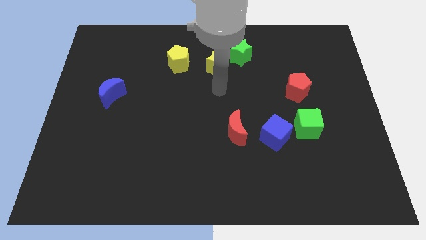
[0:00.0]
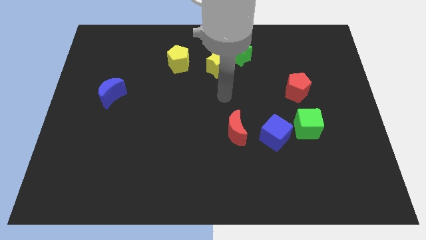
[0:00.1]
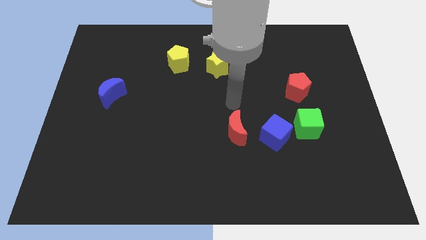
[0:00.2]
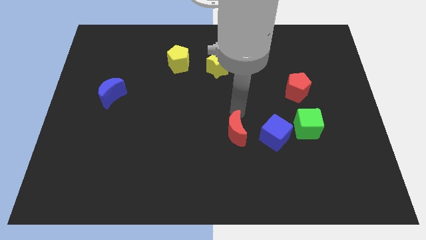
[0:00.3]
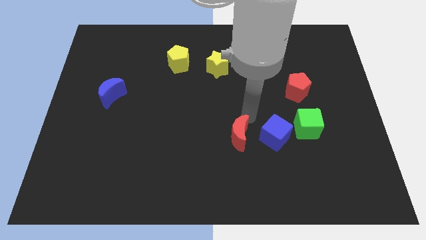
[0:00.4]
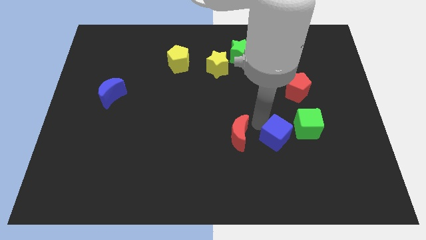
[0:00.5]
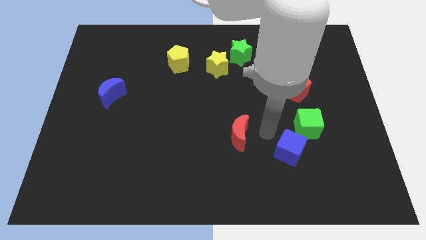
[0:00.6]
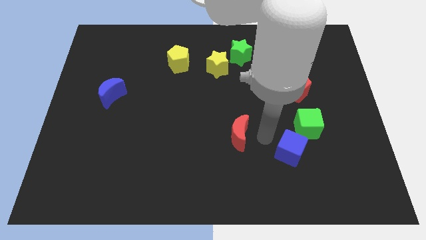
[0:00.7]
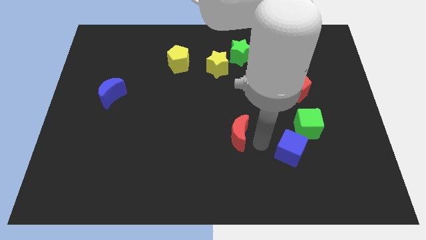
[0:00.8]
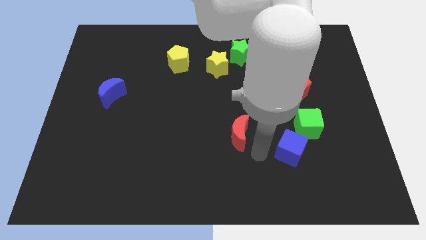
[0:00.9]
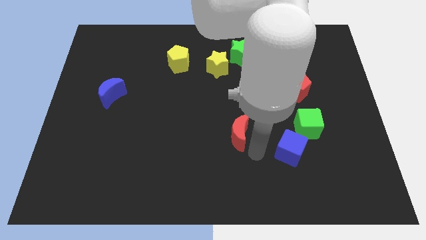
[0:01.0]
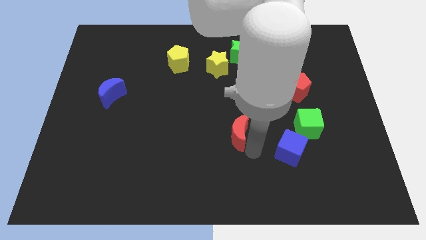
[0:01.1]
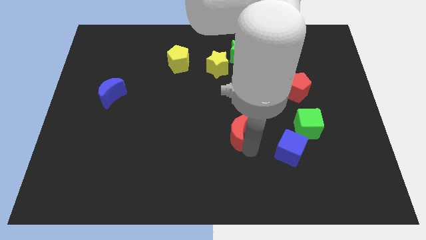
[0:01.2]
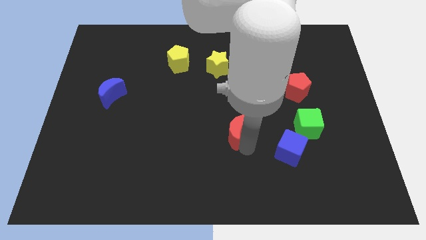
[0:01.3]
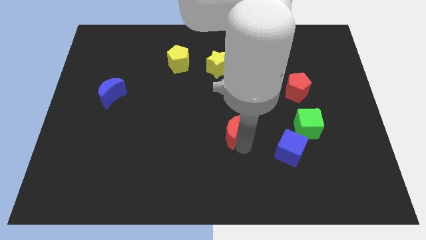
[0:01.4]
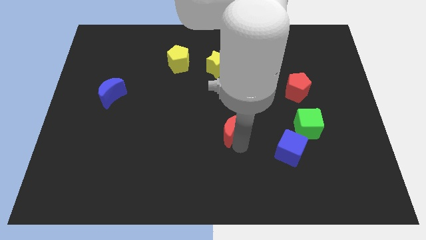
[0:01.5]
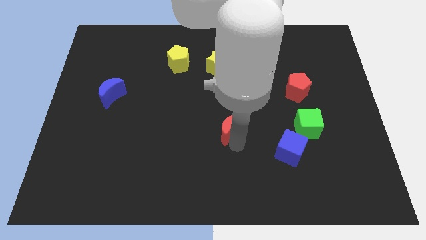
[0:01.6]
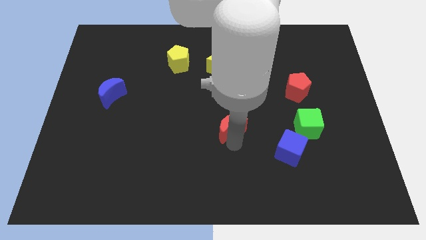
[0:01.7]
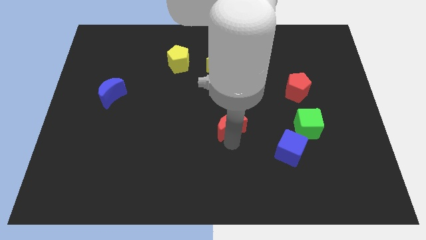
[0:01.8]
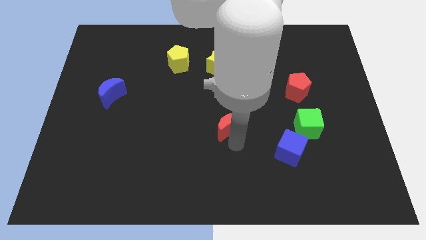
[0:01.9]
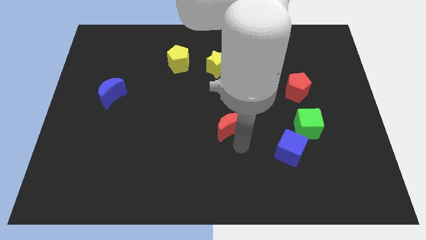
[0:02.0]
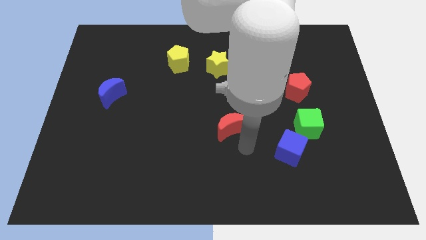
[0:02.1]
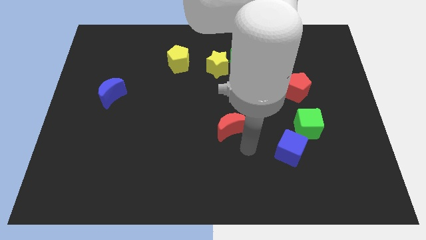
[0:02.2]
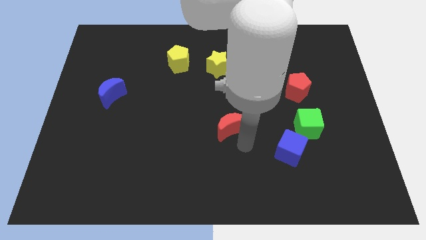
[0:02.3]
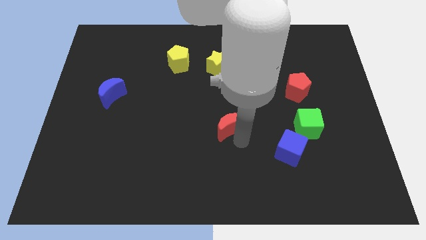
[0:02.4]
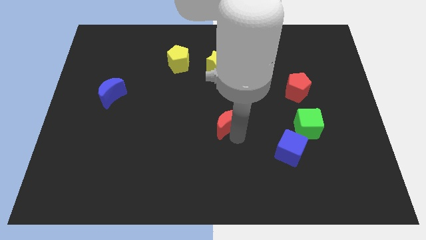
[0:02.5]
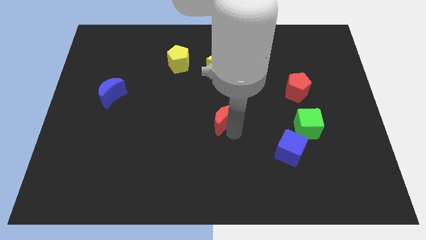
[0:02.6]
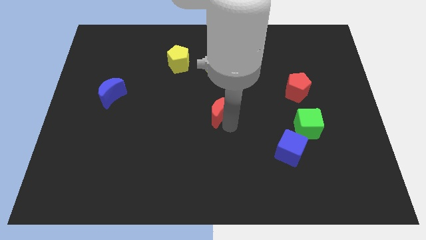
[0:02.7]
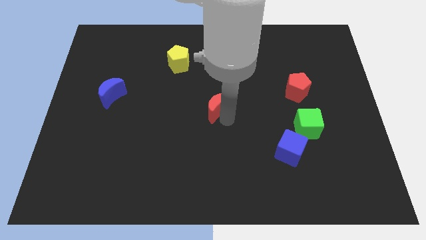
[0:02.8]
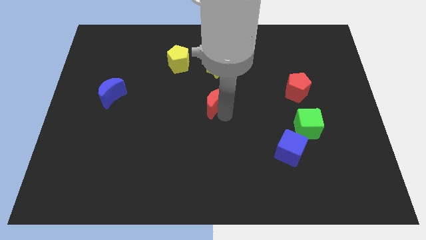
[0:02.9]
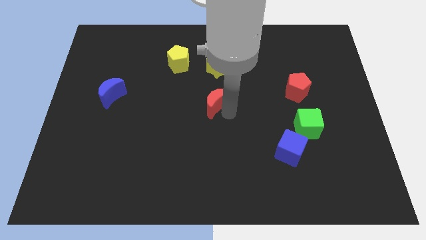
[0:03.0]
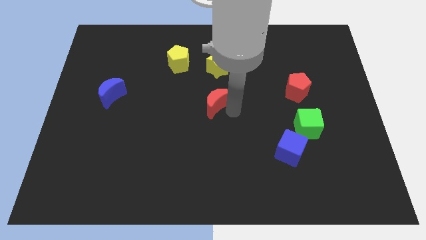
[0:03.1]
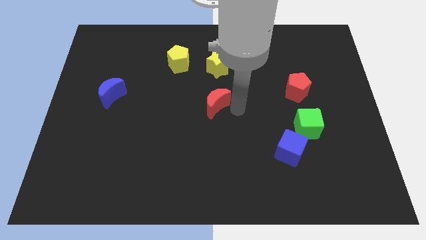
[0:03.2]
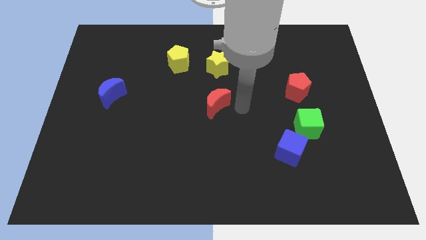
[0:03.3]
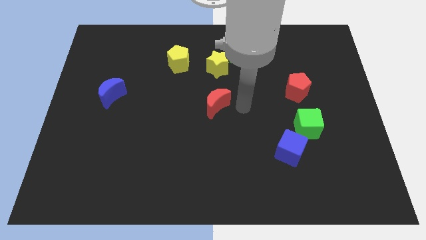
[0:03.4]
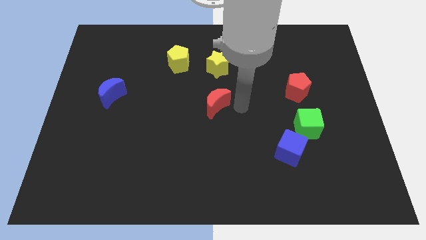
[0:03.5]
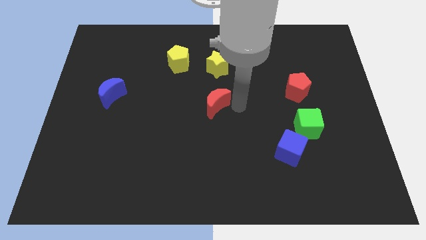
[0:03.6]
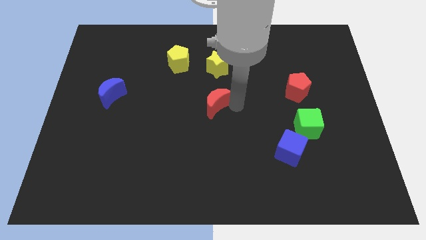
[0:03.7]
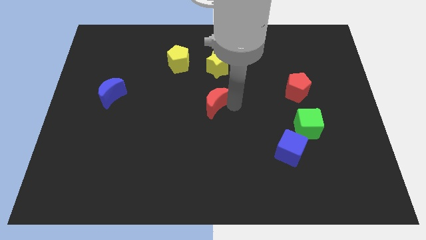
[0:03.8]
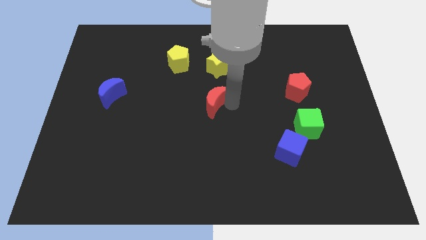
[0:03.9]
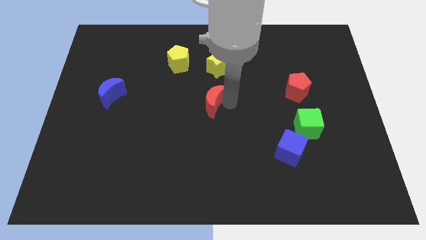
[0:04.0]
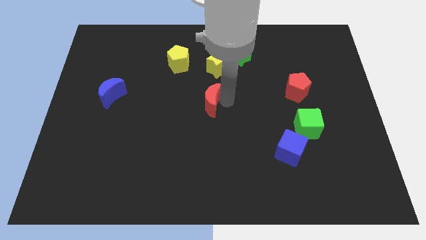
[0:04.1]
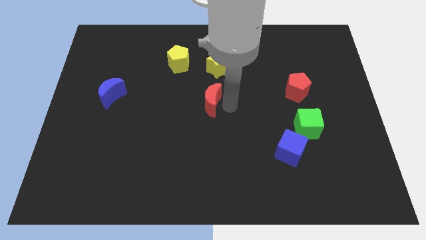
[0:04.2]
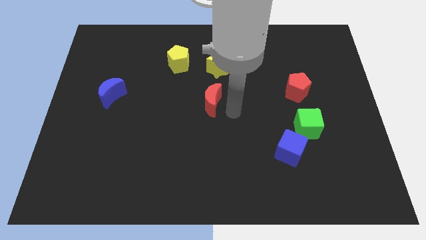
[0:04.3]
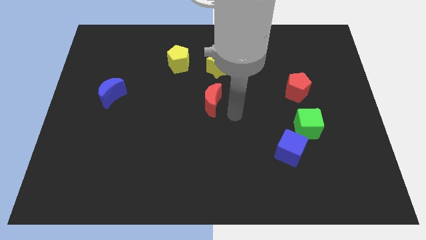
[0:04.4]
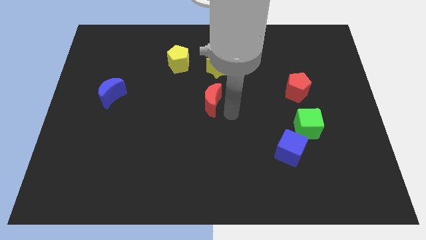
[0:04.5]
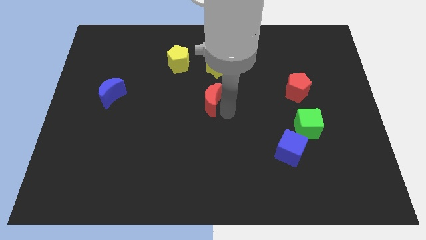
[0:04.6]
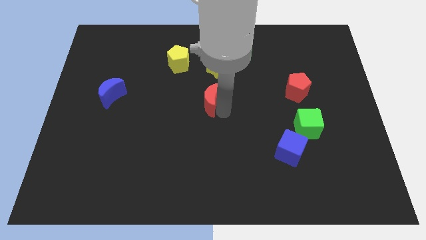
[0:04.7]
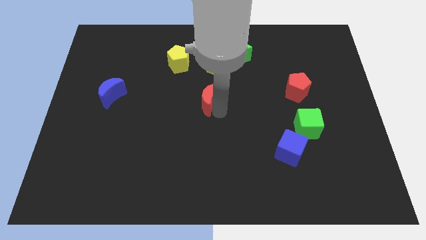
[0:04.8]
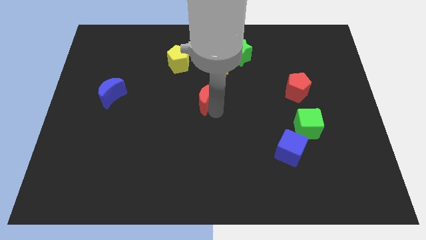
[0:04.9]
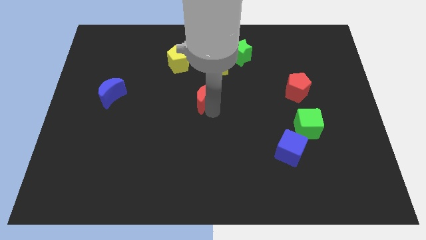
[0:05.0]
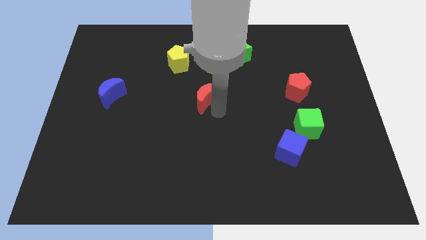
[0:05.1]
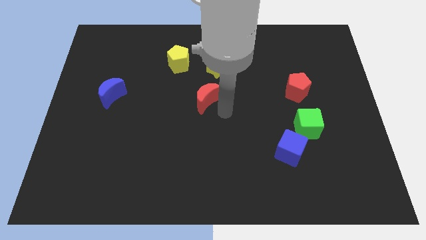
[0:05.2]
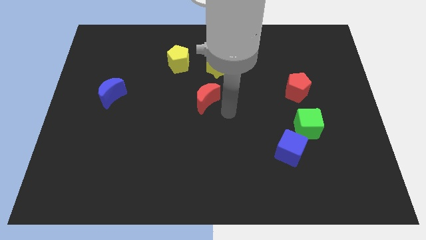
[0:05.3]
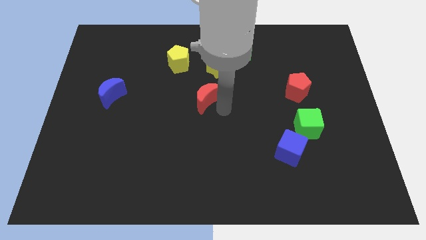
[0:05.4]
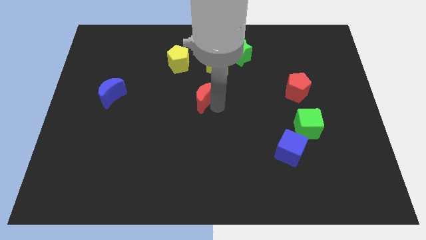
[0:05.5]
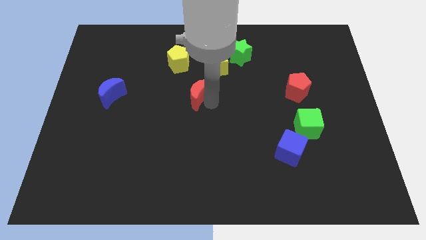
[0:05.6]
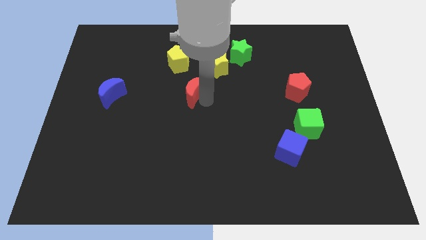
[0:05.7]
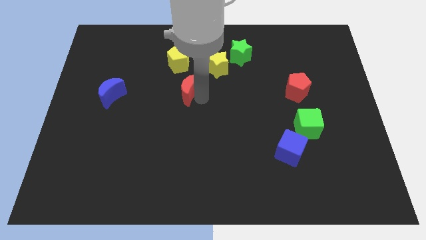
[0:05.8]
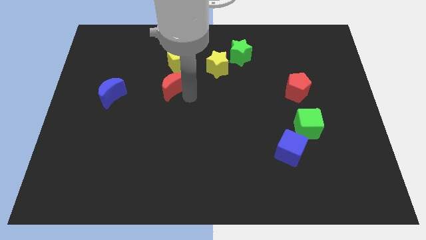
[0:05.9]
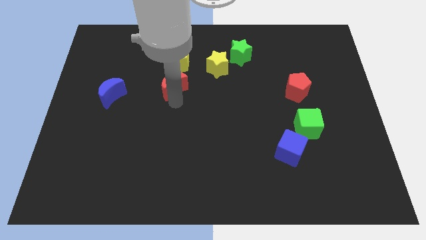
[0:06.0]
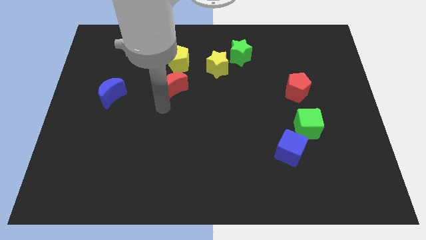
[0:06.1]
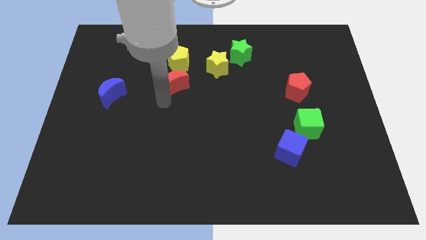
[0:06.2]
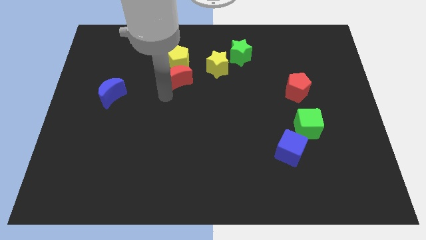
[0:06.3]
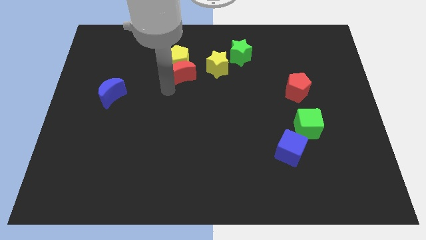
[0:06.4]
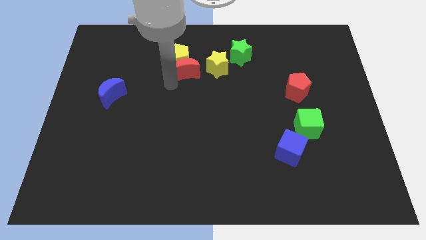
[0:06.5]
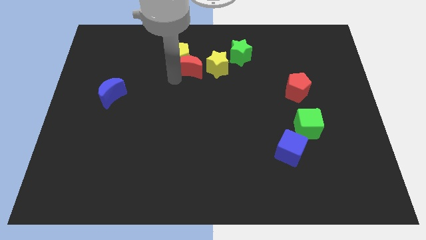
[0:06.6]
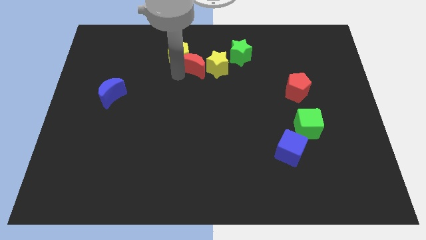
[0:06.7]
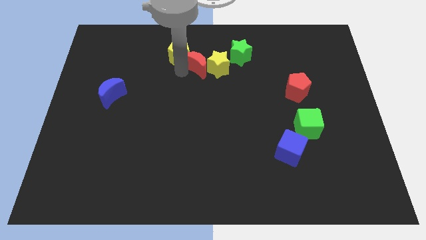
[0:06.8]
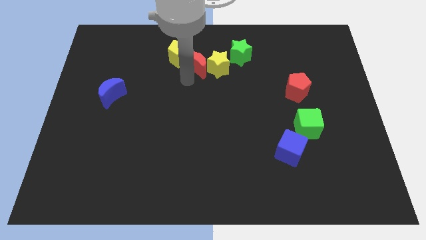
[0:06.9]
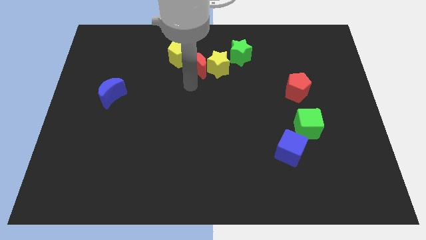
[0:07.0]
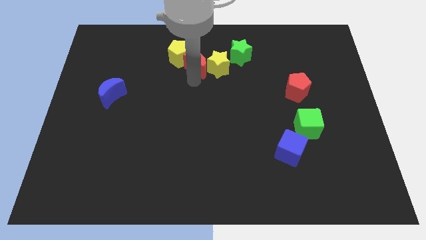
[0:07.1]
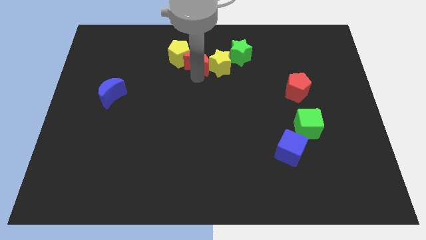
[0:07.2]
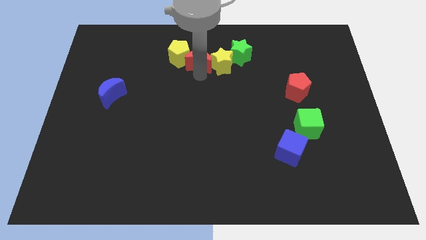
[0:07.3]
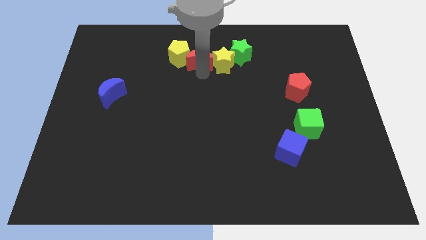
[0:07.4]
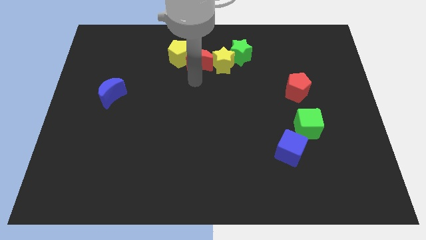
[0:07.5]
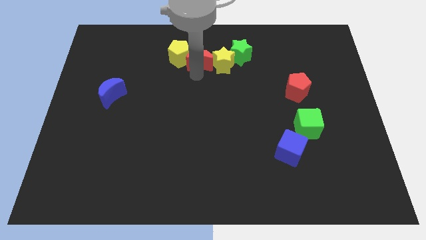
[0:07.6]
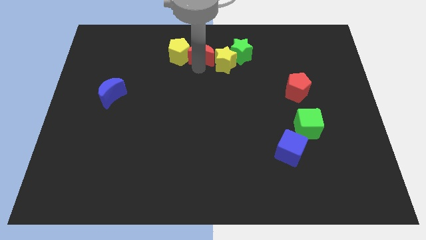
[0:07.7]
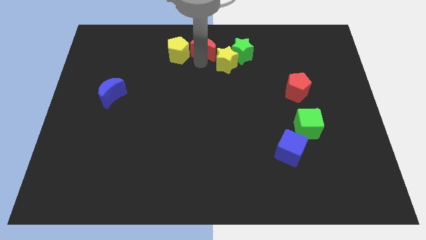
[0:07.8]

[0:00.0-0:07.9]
move the red moon to the top side
